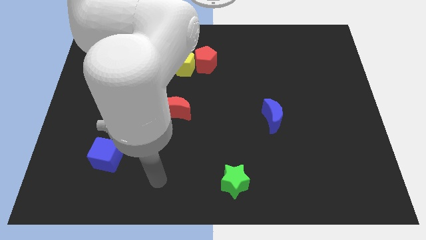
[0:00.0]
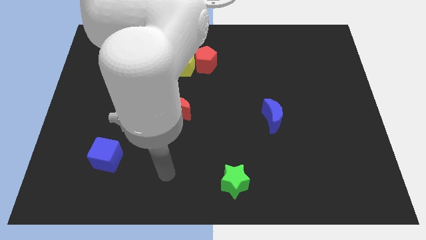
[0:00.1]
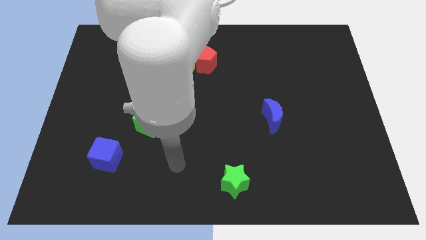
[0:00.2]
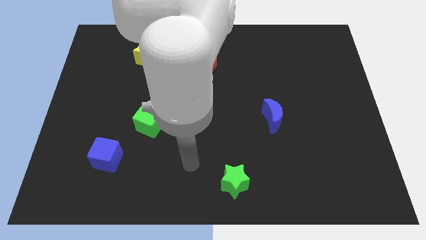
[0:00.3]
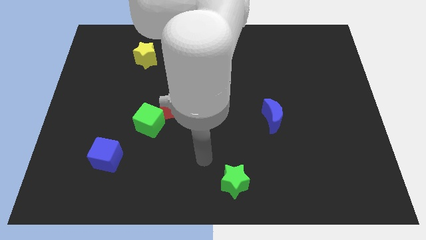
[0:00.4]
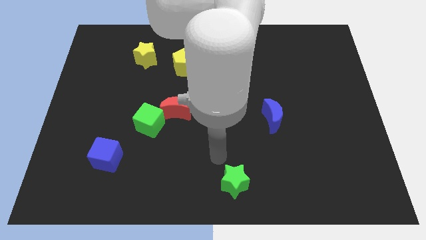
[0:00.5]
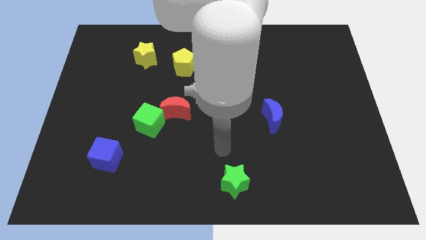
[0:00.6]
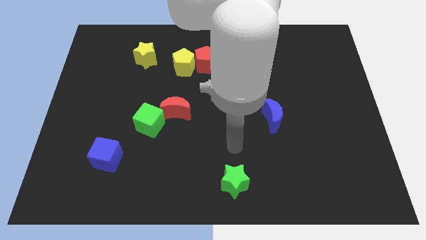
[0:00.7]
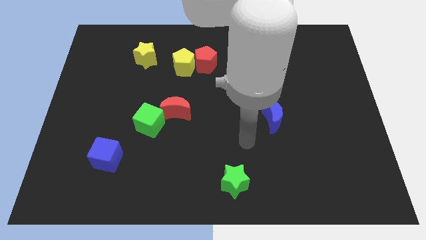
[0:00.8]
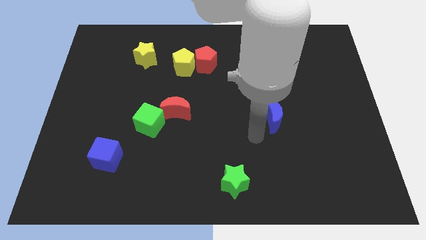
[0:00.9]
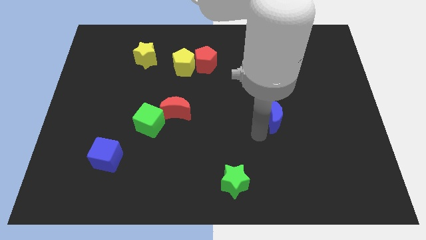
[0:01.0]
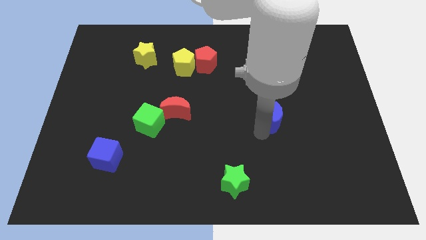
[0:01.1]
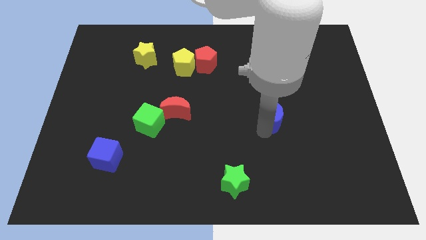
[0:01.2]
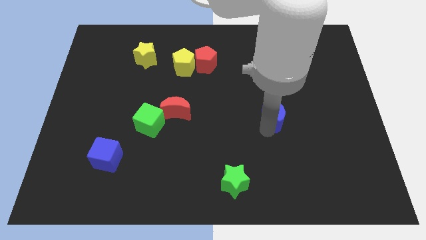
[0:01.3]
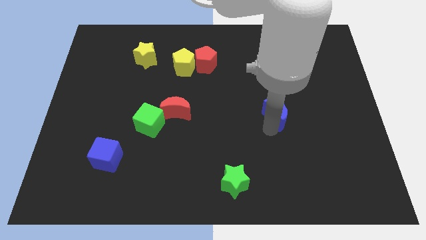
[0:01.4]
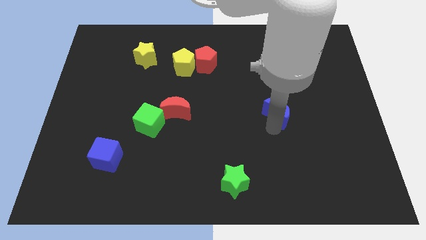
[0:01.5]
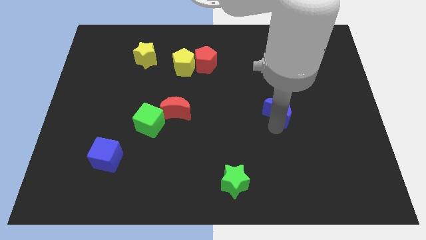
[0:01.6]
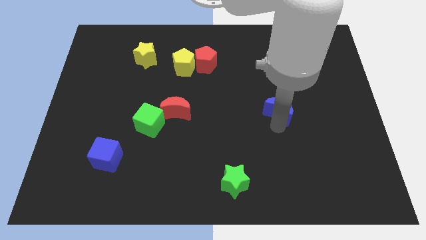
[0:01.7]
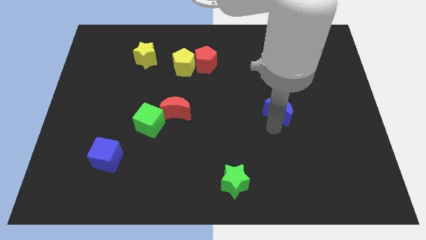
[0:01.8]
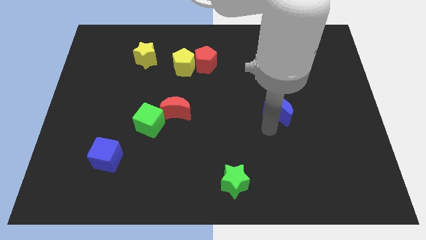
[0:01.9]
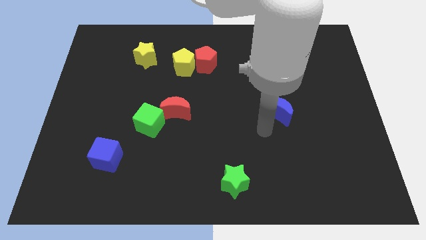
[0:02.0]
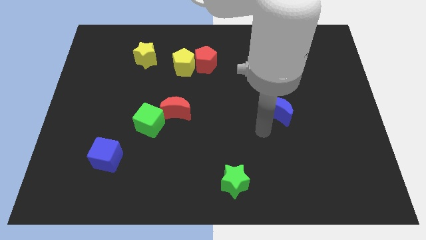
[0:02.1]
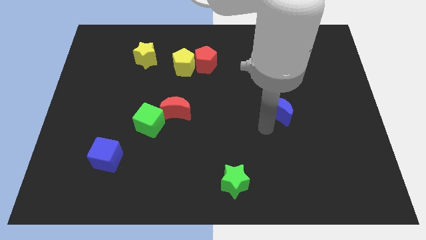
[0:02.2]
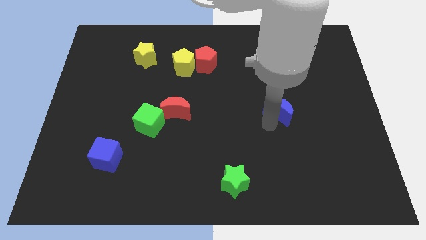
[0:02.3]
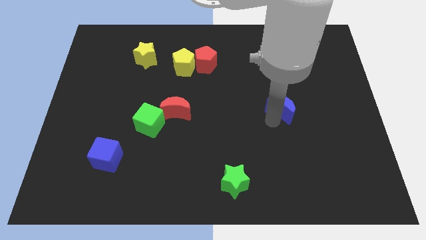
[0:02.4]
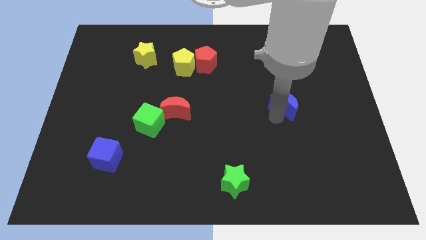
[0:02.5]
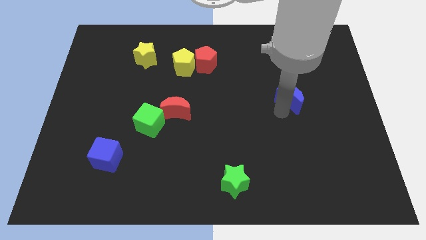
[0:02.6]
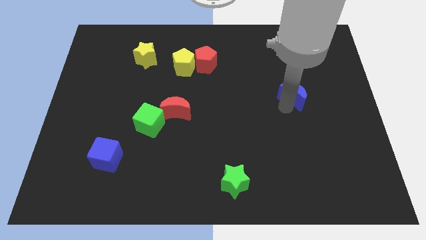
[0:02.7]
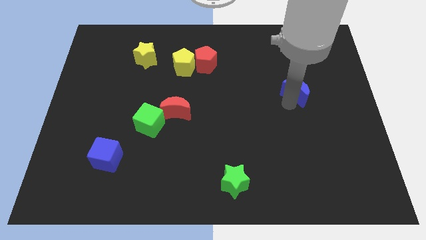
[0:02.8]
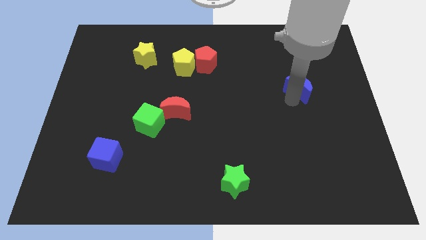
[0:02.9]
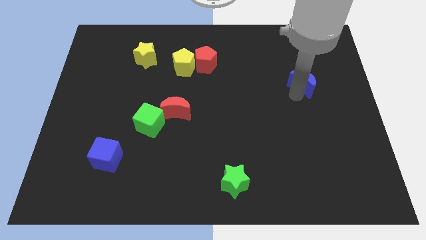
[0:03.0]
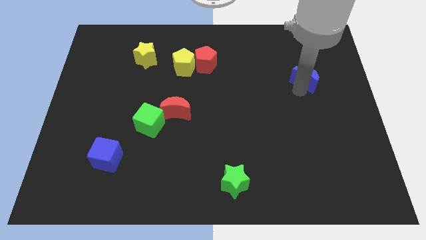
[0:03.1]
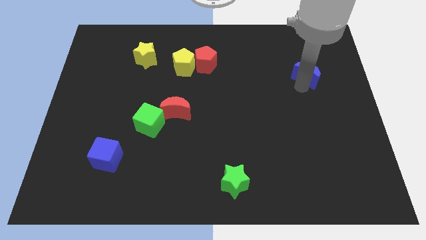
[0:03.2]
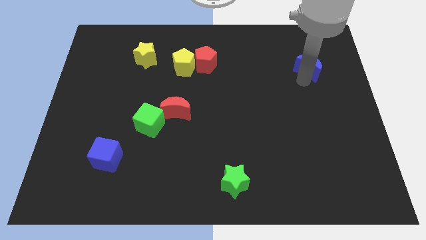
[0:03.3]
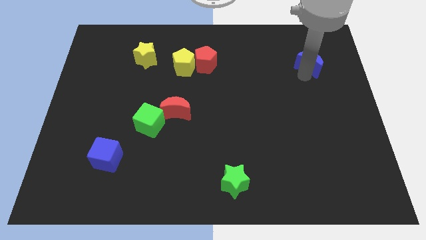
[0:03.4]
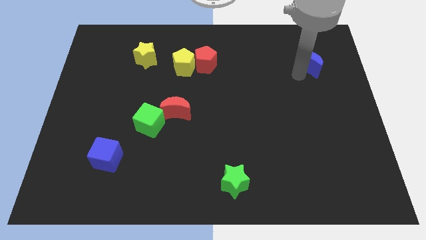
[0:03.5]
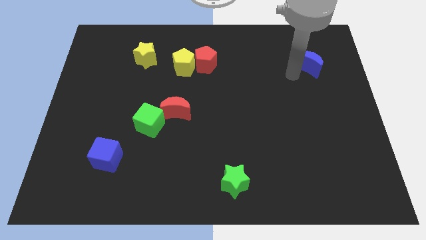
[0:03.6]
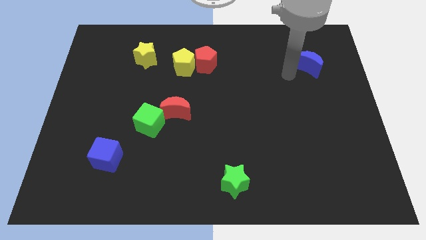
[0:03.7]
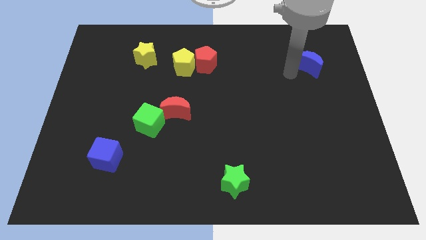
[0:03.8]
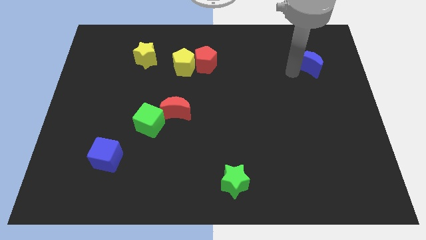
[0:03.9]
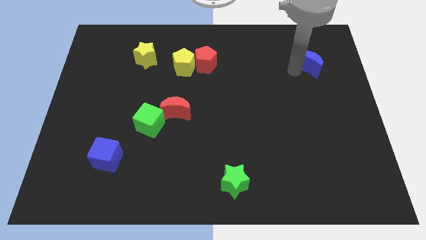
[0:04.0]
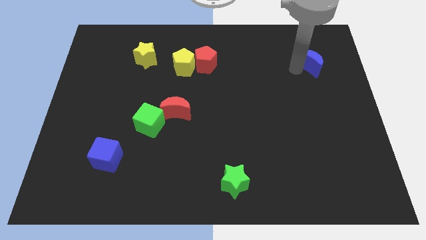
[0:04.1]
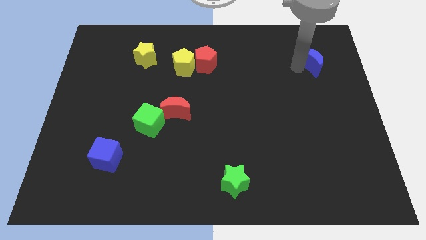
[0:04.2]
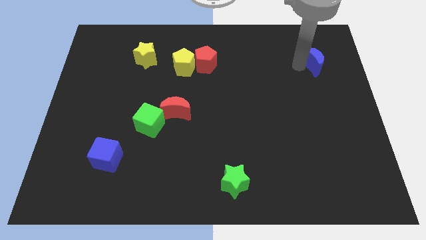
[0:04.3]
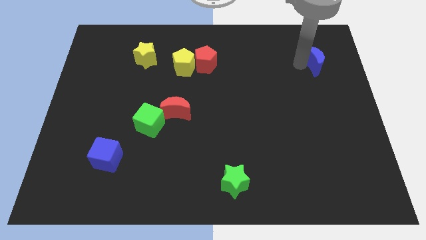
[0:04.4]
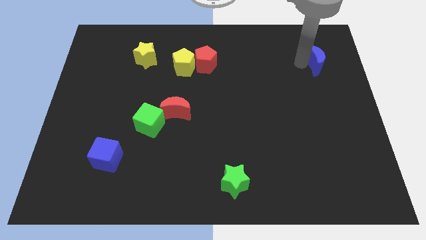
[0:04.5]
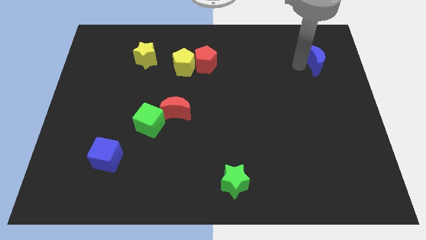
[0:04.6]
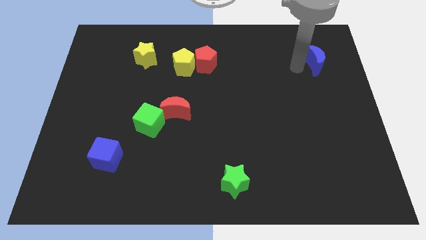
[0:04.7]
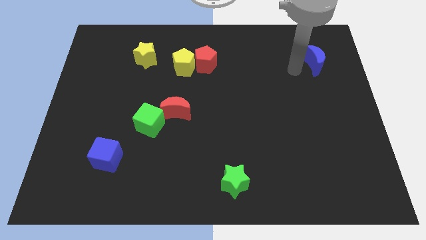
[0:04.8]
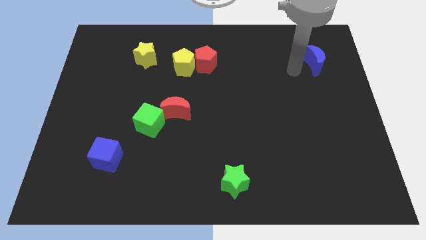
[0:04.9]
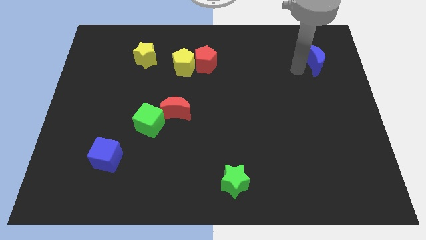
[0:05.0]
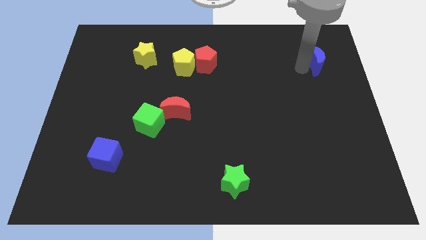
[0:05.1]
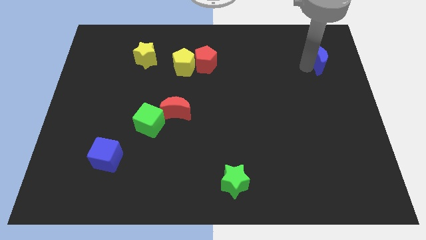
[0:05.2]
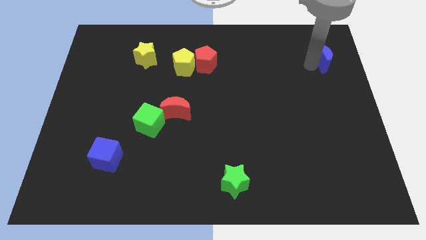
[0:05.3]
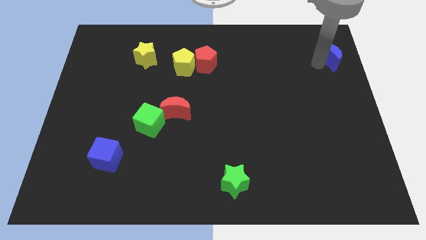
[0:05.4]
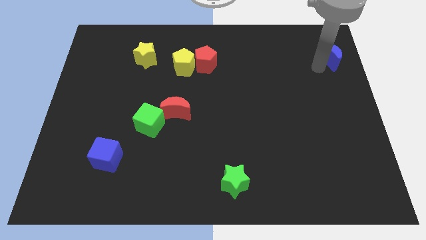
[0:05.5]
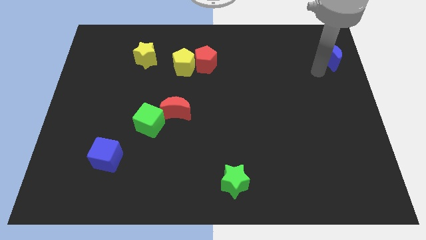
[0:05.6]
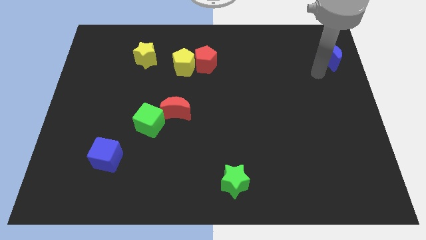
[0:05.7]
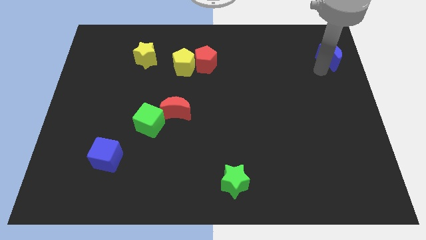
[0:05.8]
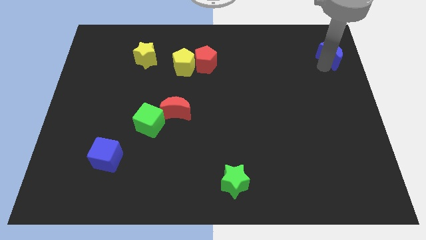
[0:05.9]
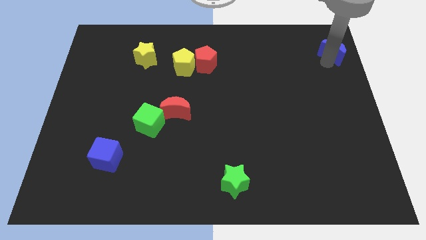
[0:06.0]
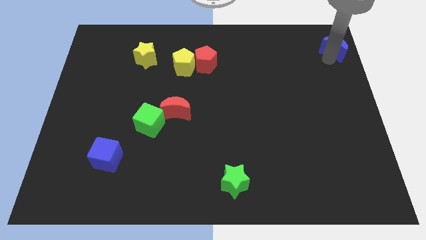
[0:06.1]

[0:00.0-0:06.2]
move the blue moon to the top right of the board

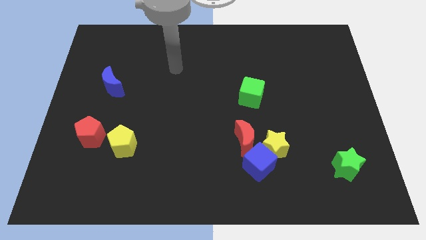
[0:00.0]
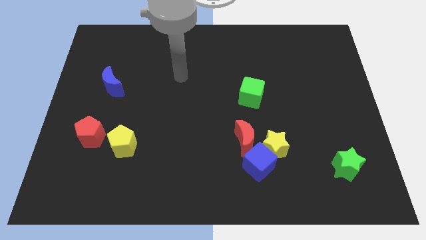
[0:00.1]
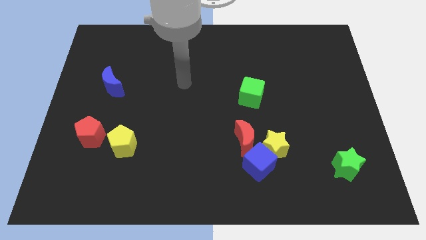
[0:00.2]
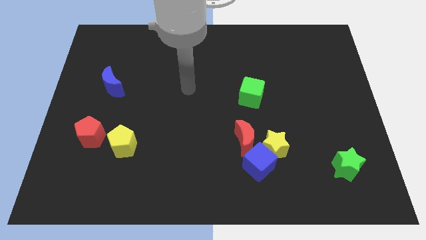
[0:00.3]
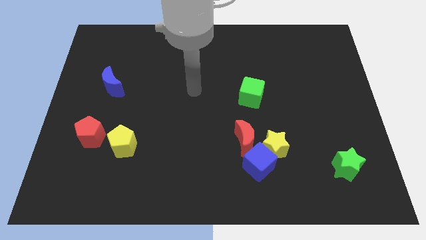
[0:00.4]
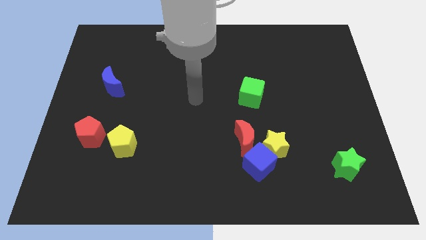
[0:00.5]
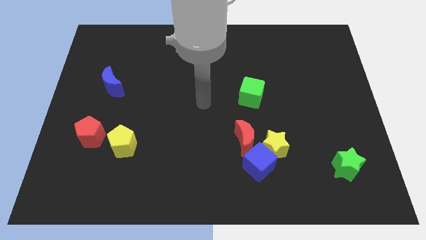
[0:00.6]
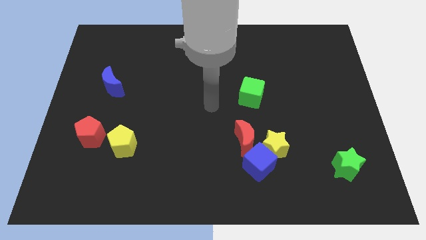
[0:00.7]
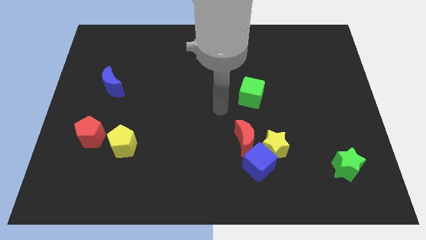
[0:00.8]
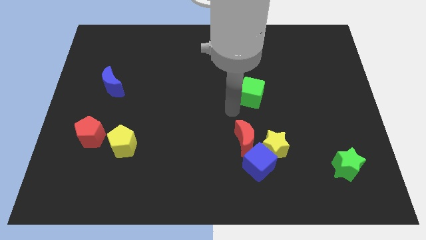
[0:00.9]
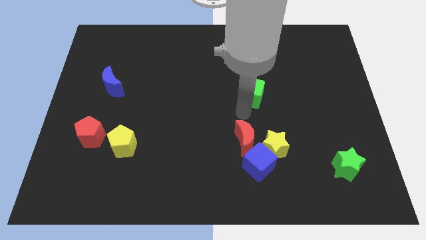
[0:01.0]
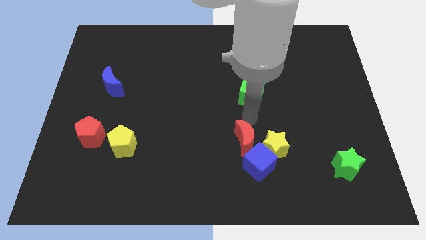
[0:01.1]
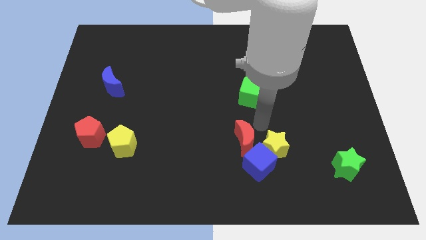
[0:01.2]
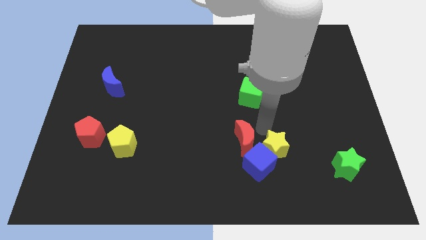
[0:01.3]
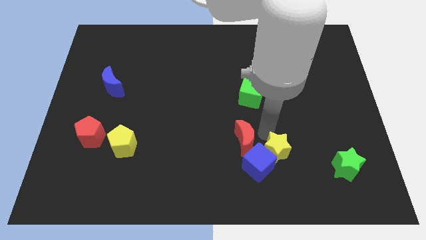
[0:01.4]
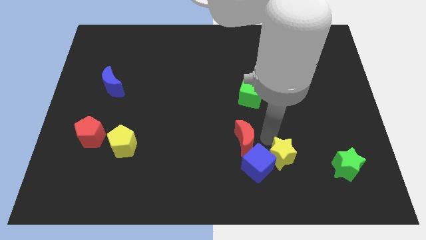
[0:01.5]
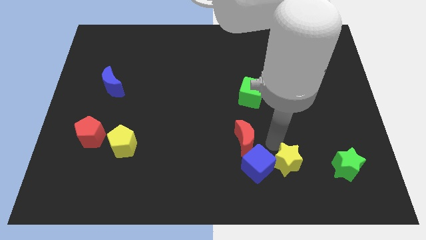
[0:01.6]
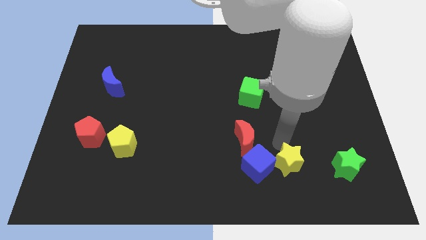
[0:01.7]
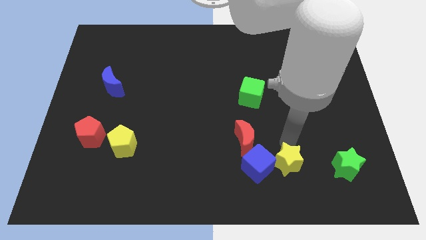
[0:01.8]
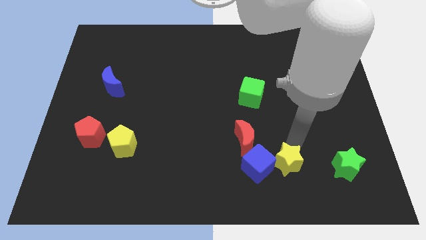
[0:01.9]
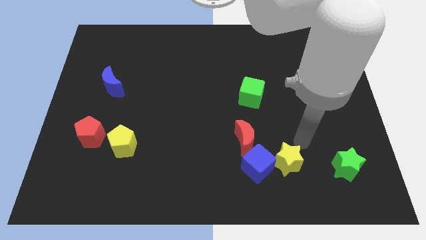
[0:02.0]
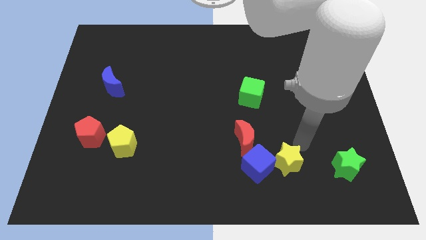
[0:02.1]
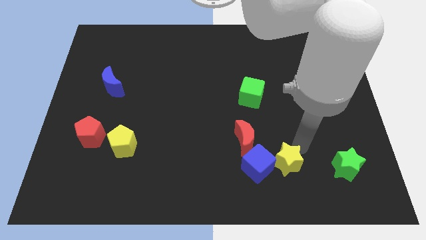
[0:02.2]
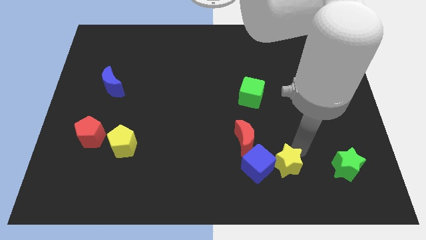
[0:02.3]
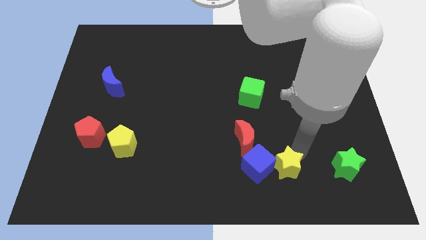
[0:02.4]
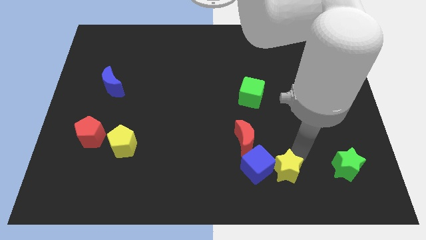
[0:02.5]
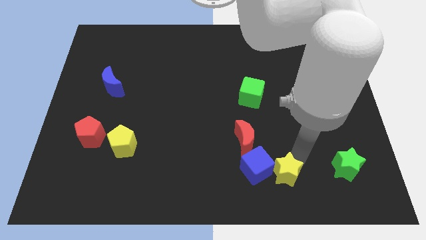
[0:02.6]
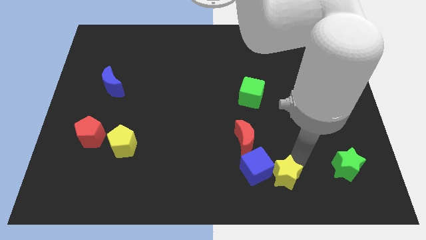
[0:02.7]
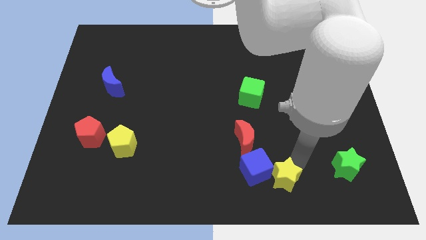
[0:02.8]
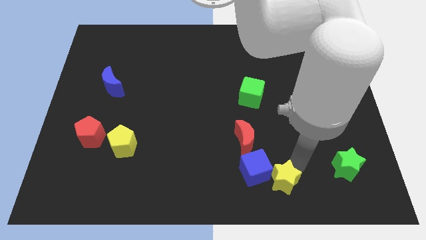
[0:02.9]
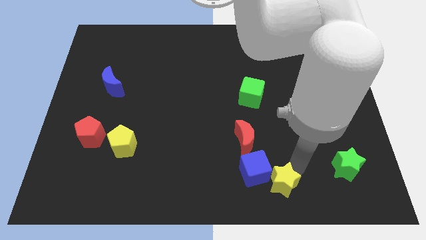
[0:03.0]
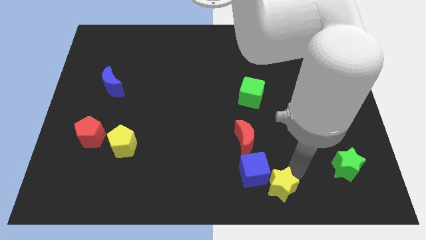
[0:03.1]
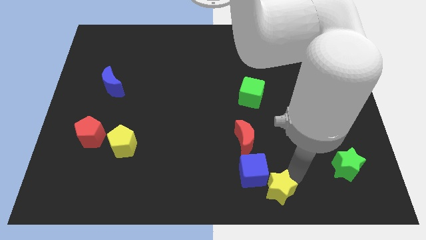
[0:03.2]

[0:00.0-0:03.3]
slide the yellow star to the bottom side
